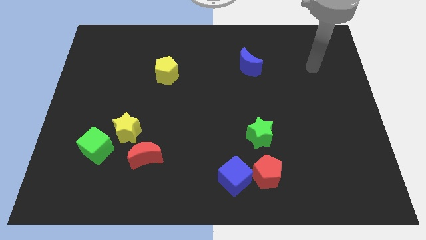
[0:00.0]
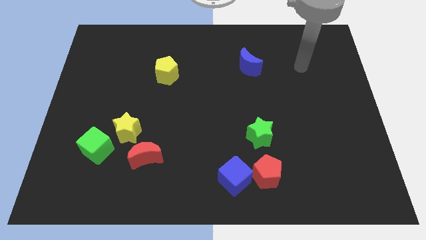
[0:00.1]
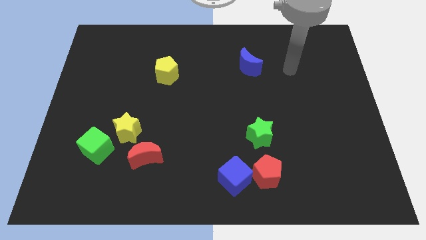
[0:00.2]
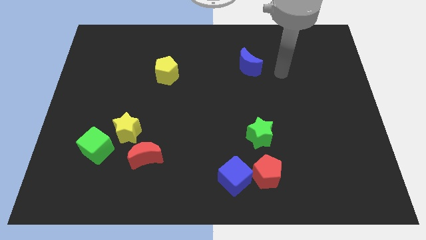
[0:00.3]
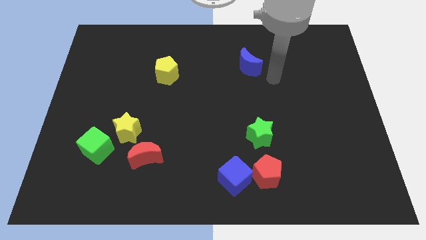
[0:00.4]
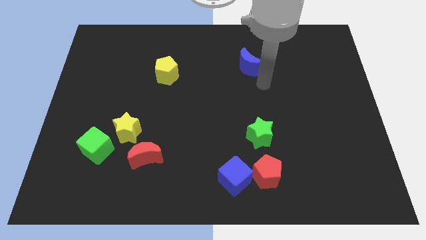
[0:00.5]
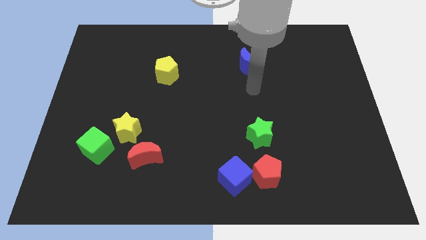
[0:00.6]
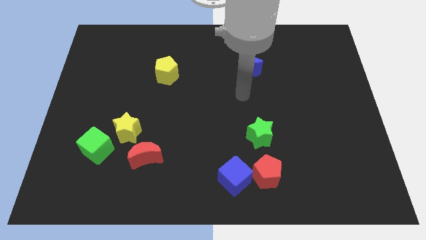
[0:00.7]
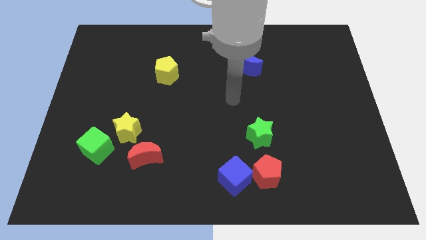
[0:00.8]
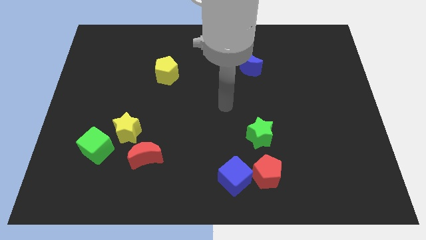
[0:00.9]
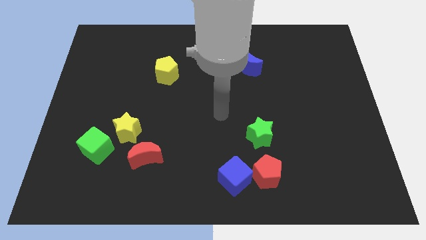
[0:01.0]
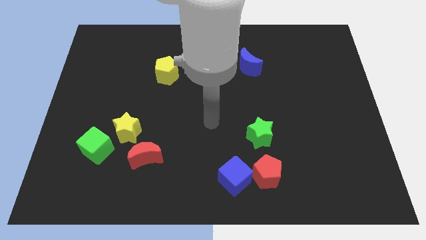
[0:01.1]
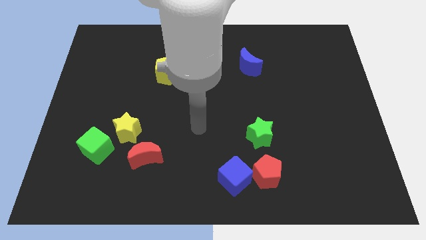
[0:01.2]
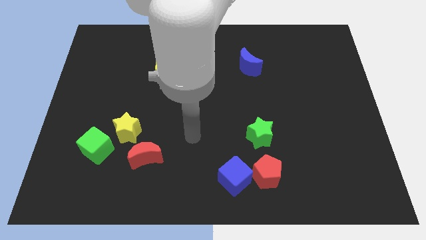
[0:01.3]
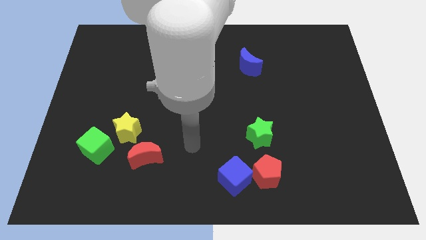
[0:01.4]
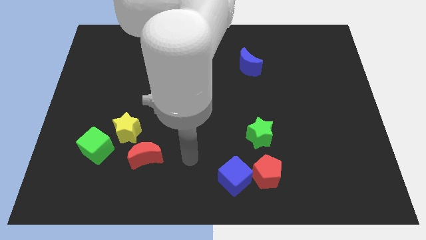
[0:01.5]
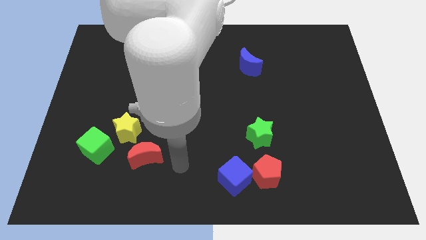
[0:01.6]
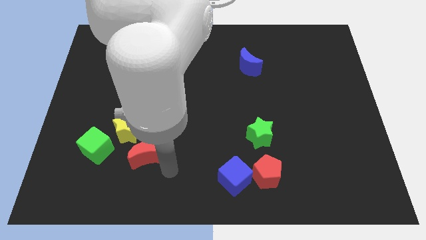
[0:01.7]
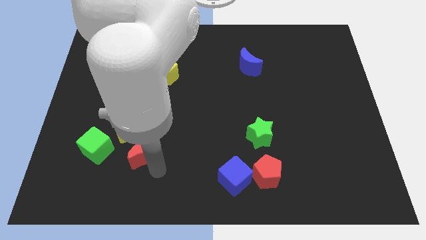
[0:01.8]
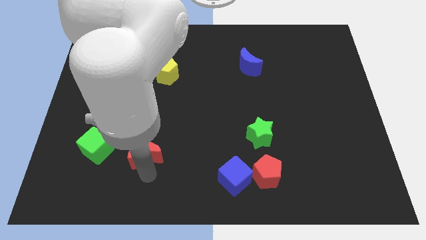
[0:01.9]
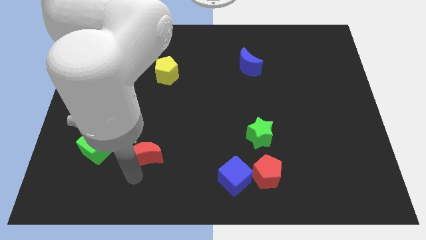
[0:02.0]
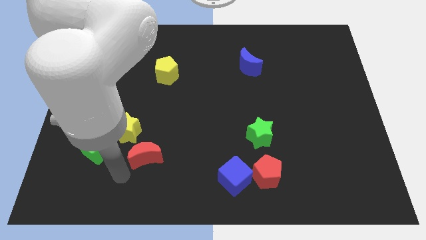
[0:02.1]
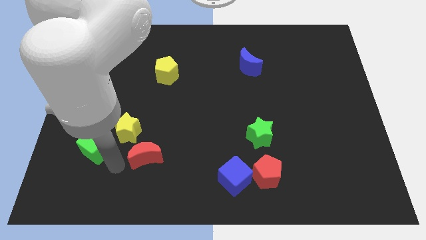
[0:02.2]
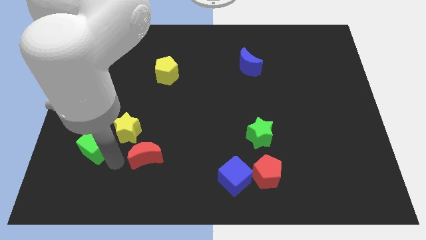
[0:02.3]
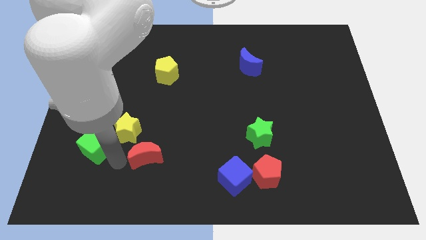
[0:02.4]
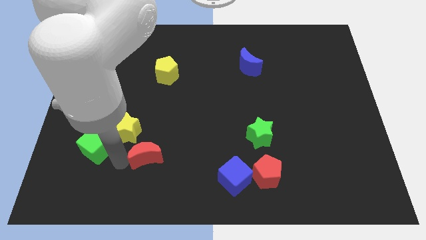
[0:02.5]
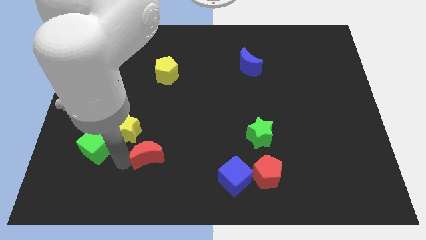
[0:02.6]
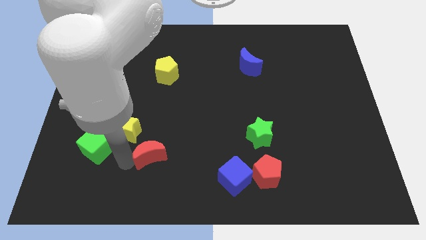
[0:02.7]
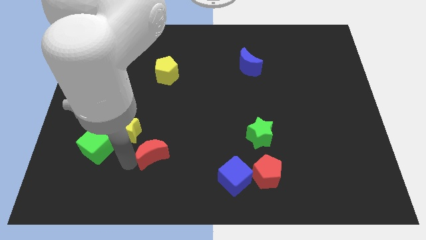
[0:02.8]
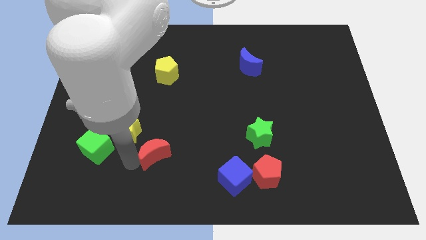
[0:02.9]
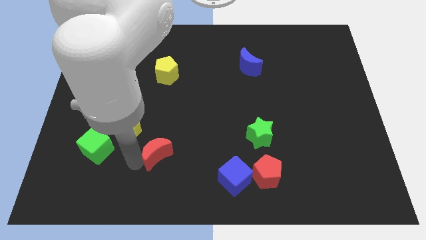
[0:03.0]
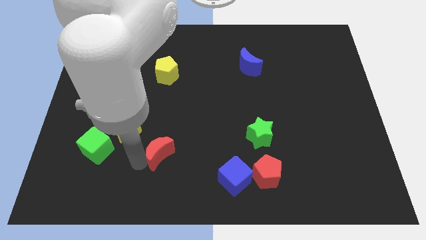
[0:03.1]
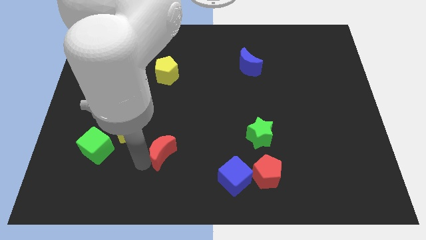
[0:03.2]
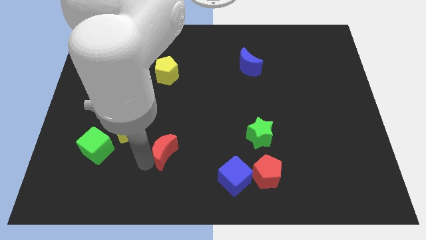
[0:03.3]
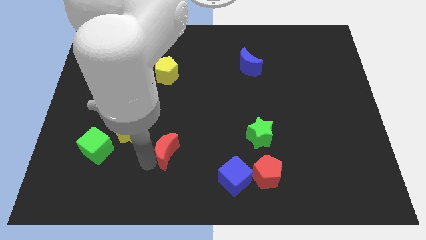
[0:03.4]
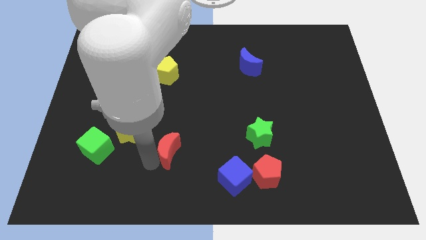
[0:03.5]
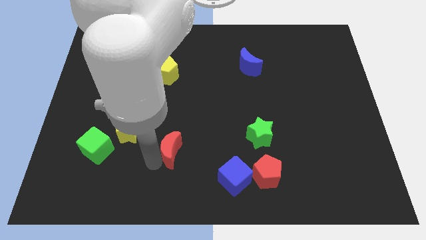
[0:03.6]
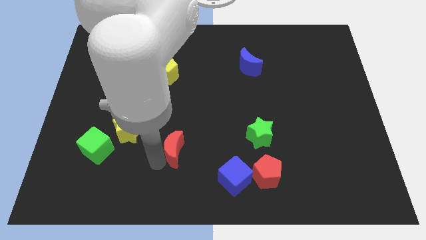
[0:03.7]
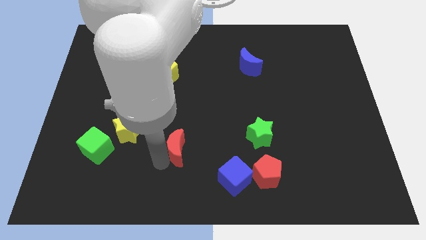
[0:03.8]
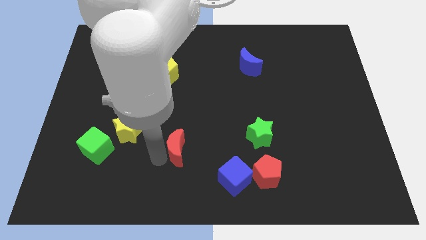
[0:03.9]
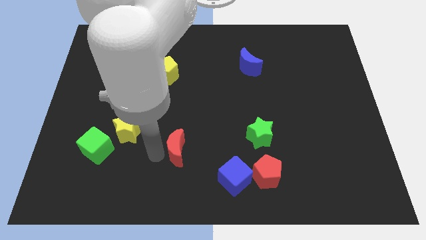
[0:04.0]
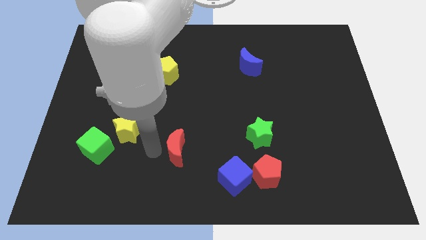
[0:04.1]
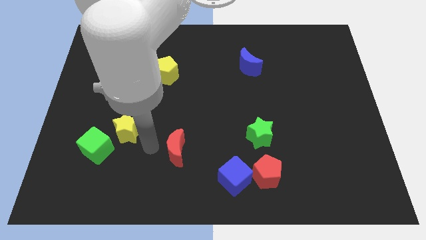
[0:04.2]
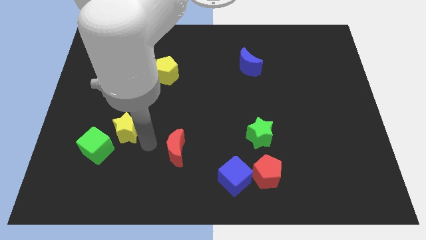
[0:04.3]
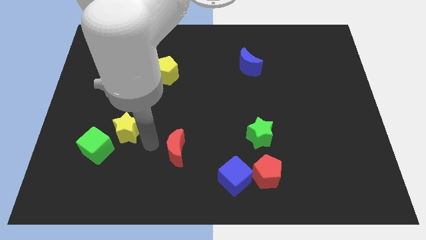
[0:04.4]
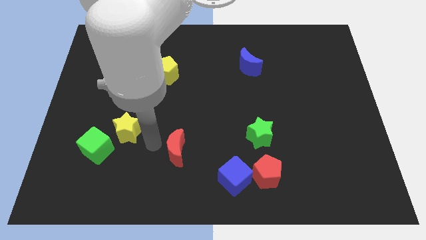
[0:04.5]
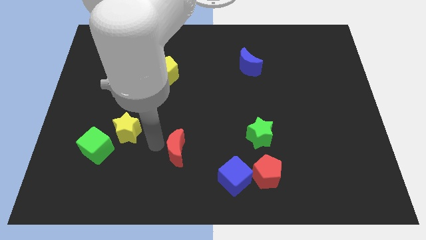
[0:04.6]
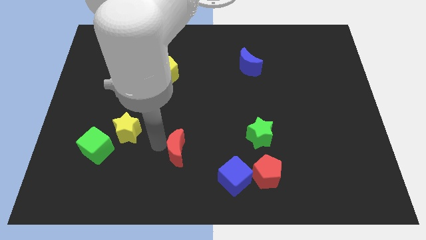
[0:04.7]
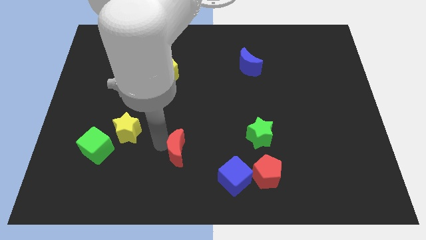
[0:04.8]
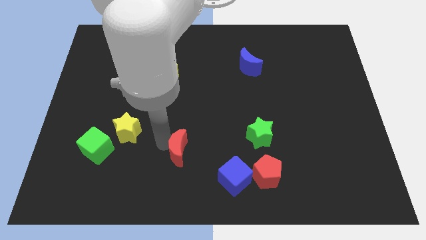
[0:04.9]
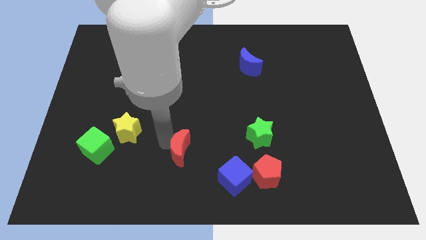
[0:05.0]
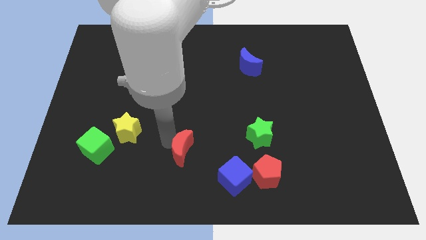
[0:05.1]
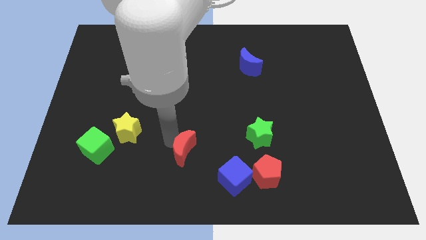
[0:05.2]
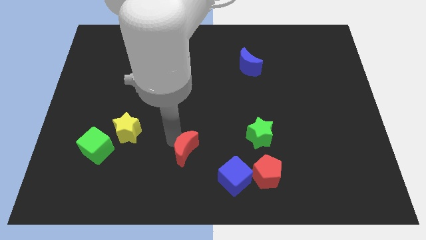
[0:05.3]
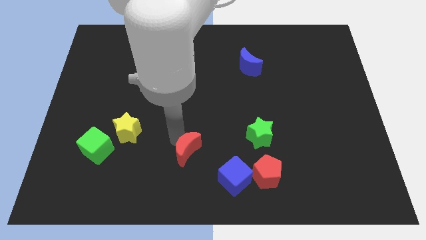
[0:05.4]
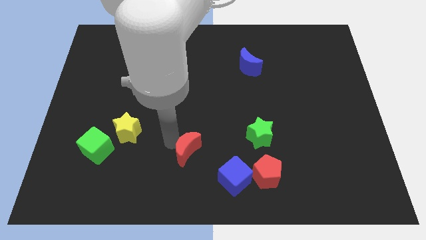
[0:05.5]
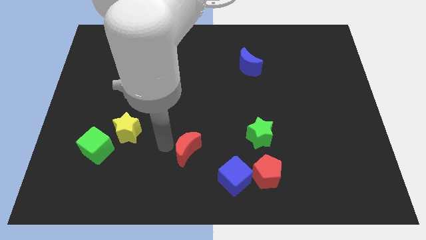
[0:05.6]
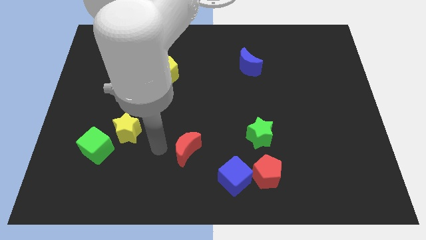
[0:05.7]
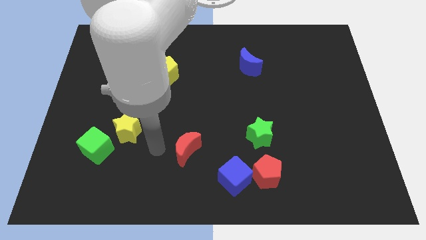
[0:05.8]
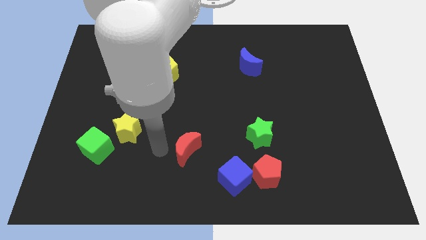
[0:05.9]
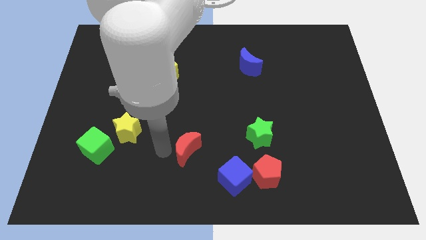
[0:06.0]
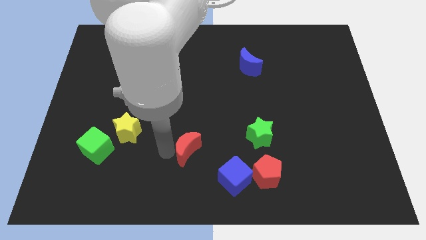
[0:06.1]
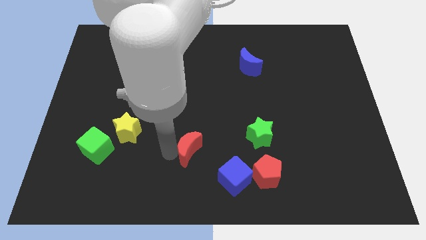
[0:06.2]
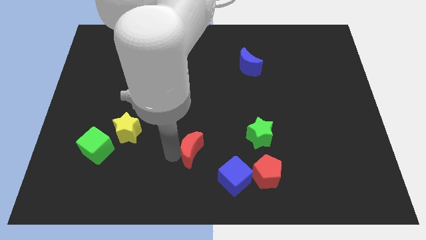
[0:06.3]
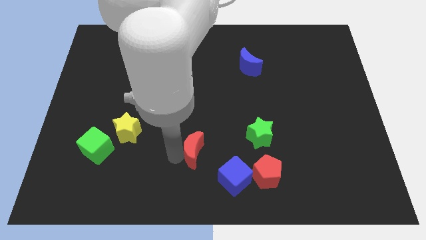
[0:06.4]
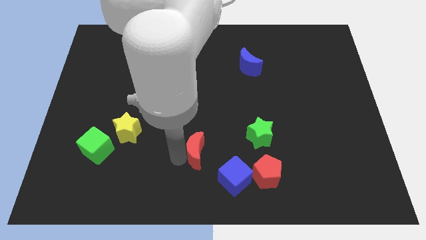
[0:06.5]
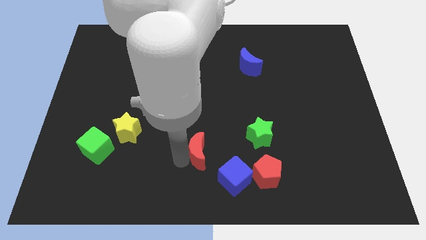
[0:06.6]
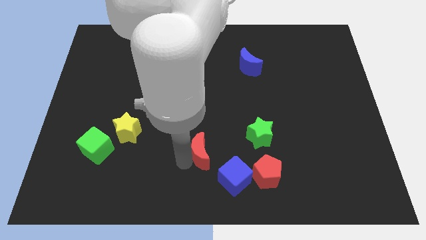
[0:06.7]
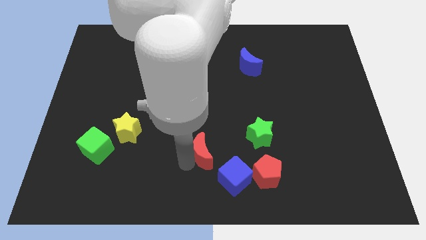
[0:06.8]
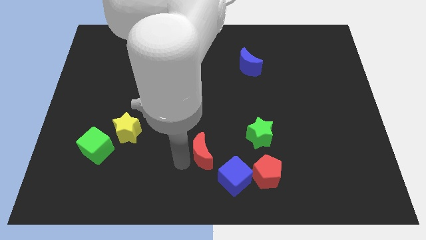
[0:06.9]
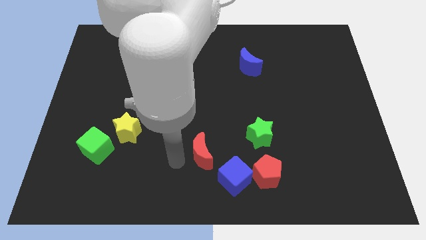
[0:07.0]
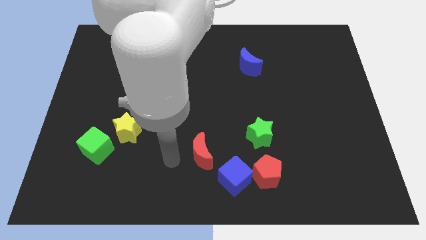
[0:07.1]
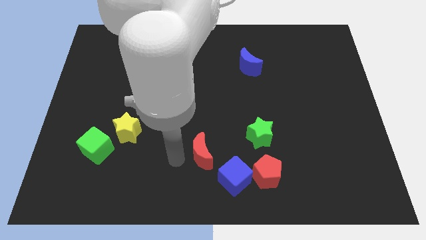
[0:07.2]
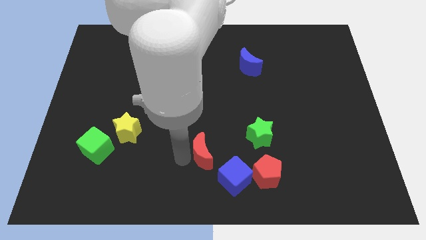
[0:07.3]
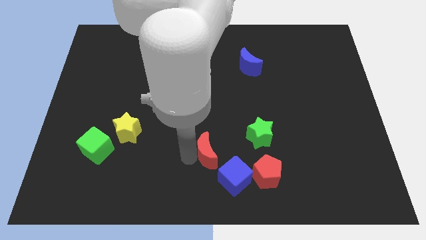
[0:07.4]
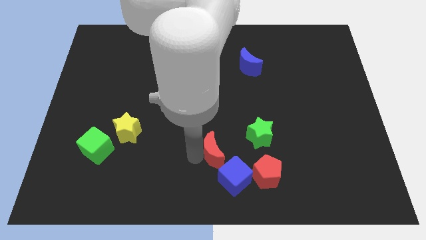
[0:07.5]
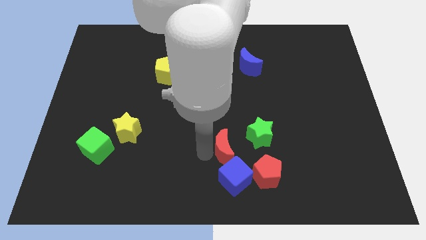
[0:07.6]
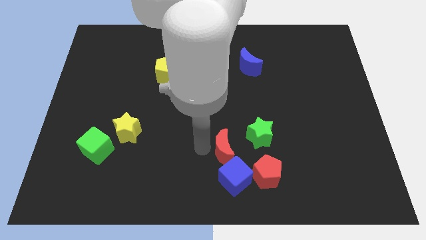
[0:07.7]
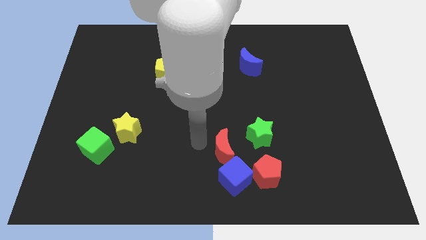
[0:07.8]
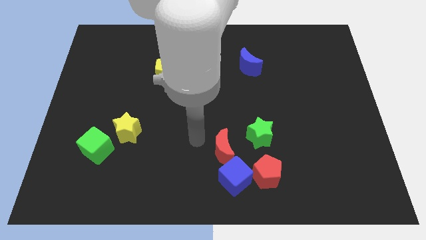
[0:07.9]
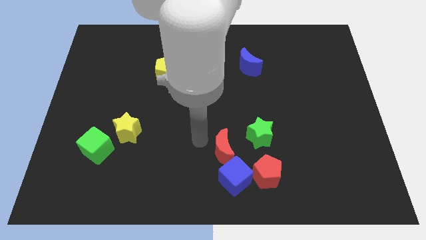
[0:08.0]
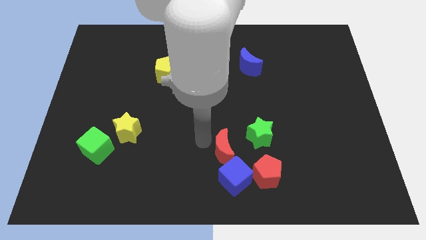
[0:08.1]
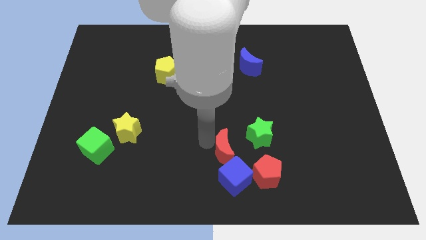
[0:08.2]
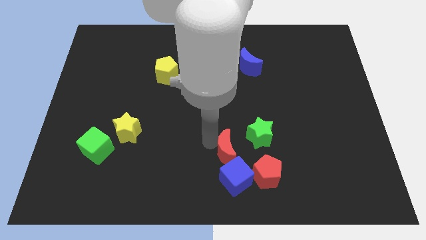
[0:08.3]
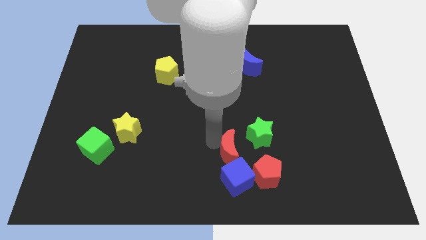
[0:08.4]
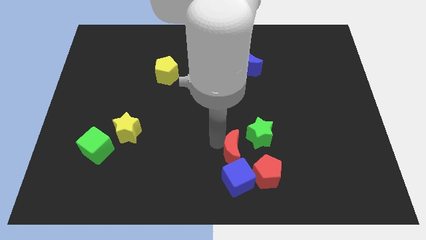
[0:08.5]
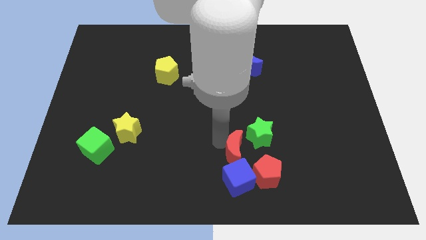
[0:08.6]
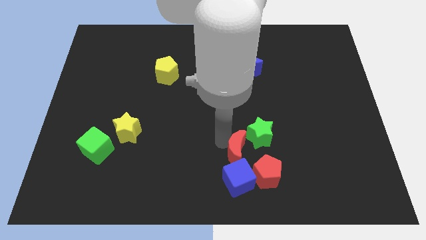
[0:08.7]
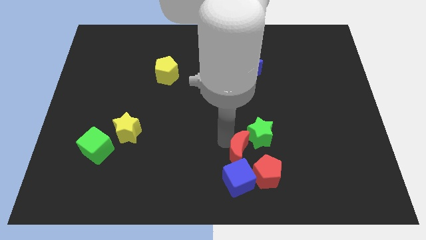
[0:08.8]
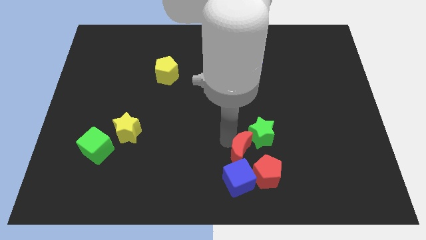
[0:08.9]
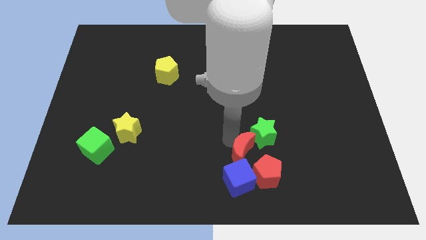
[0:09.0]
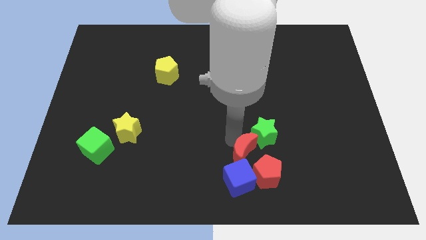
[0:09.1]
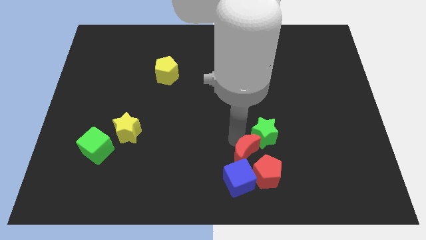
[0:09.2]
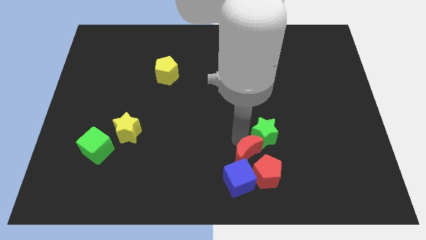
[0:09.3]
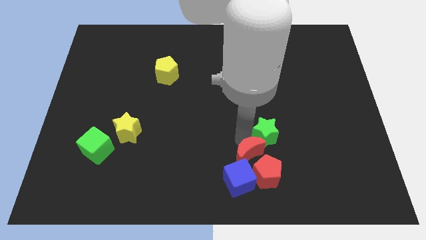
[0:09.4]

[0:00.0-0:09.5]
put the red moon to the red pentagon
